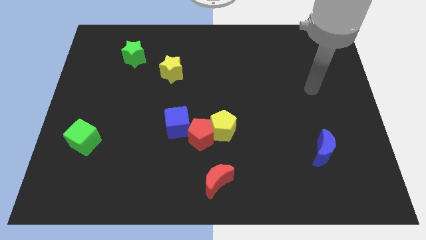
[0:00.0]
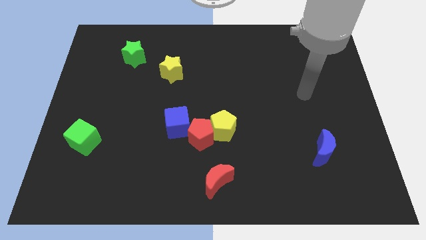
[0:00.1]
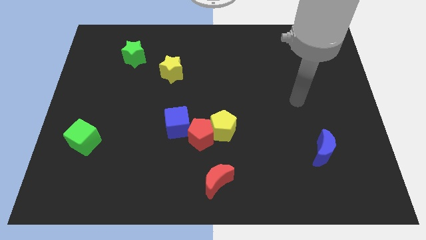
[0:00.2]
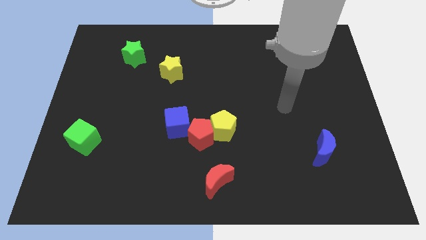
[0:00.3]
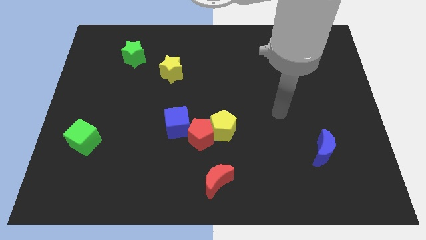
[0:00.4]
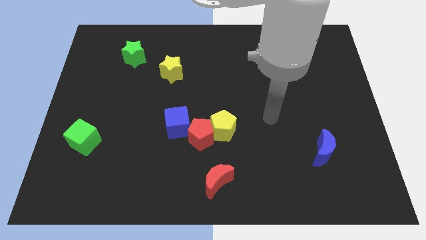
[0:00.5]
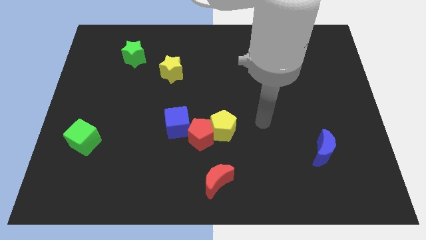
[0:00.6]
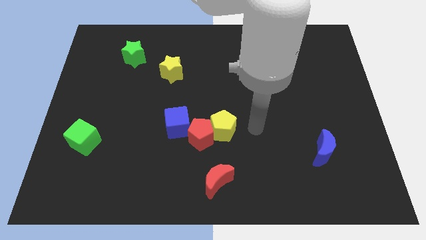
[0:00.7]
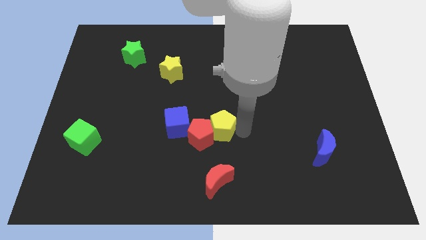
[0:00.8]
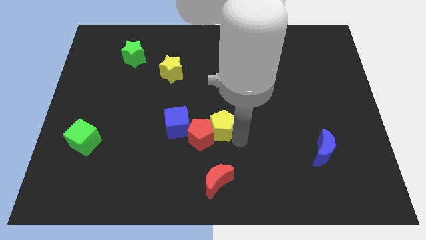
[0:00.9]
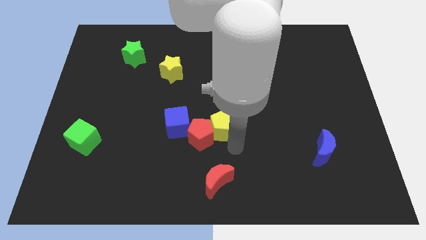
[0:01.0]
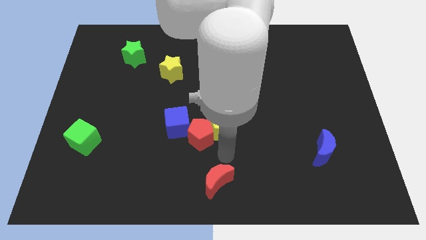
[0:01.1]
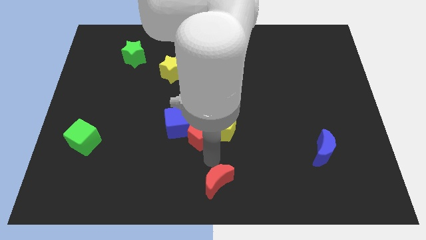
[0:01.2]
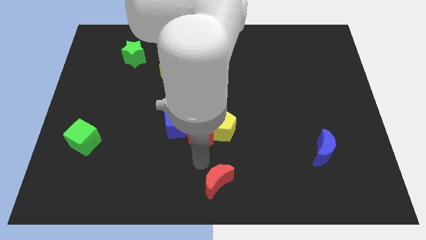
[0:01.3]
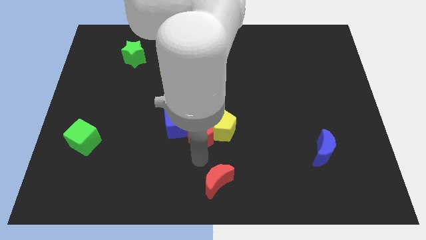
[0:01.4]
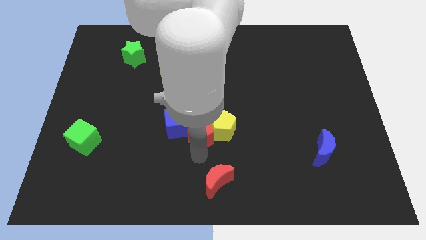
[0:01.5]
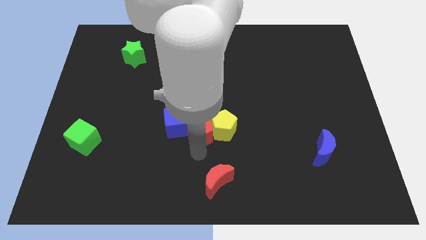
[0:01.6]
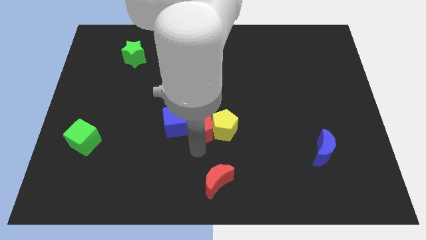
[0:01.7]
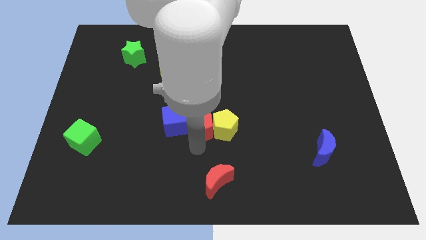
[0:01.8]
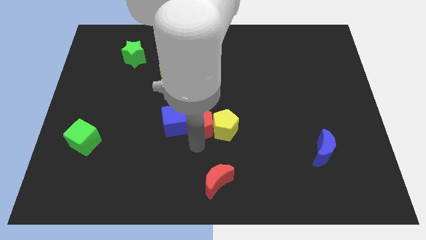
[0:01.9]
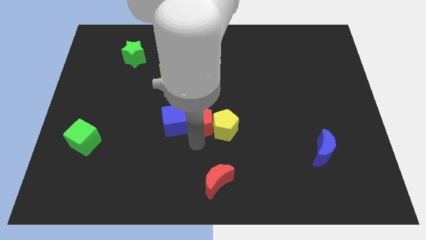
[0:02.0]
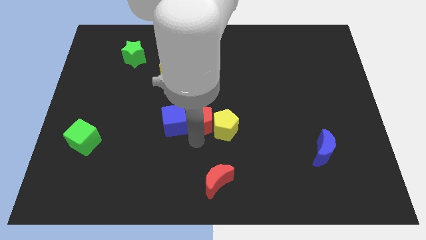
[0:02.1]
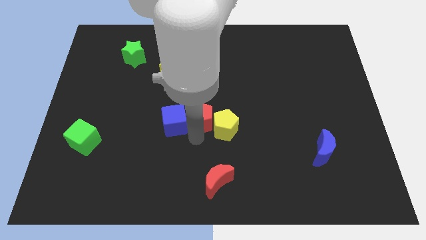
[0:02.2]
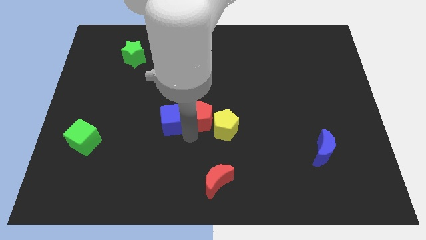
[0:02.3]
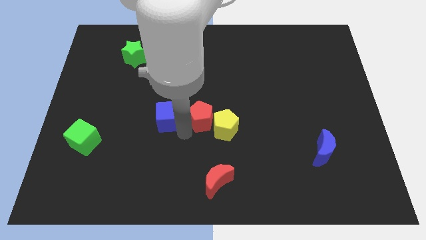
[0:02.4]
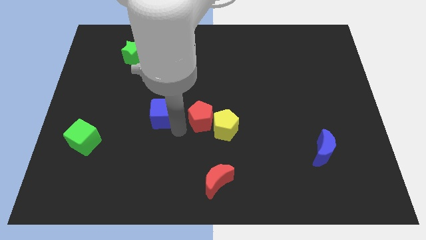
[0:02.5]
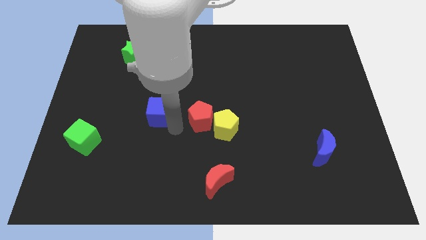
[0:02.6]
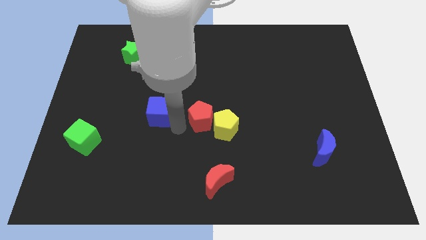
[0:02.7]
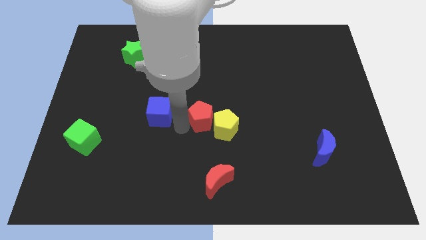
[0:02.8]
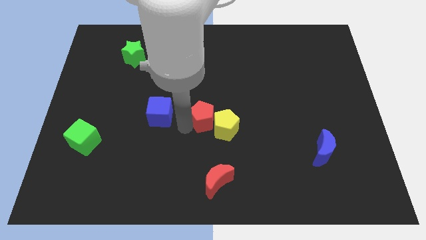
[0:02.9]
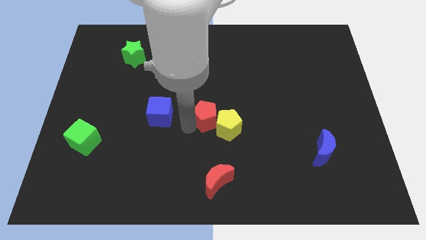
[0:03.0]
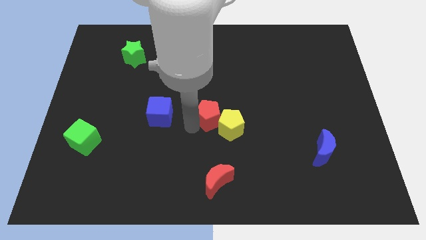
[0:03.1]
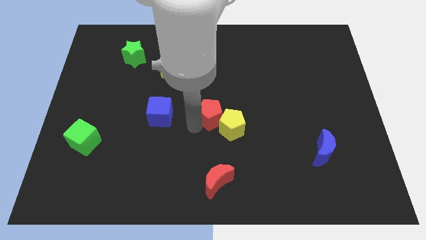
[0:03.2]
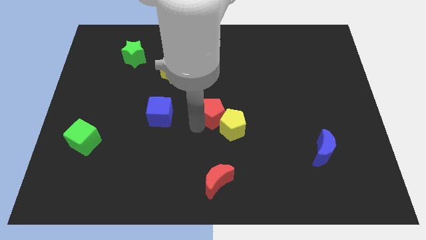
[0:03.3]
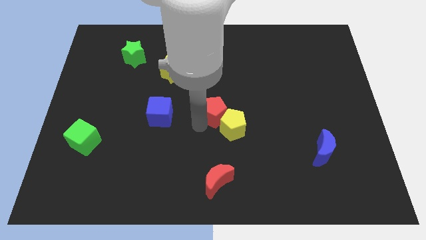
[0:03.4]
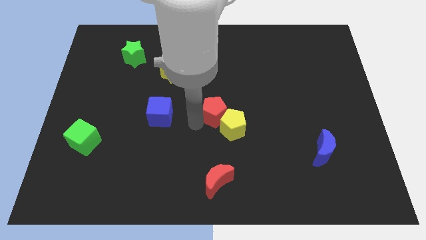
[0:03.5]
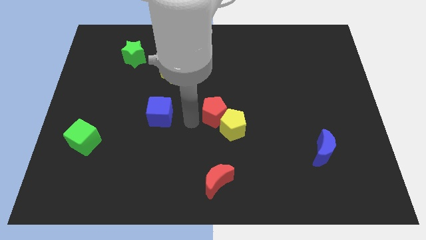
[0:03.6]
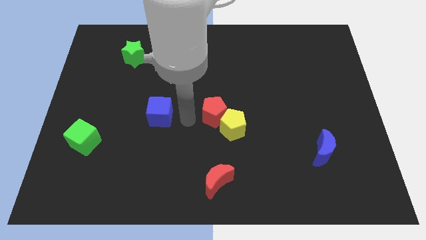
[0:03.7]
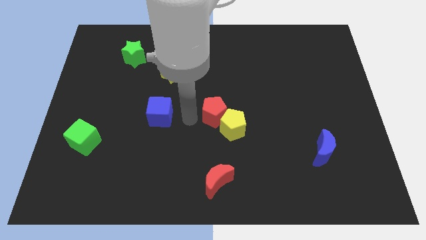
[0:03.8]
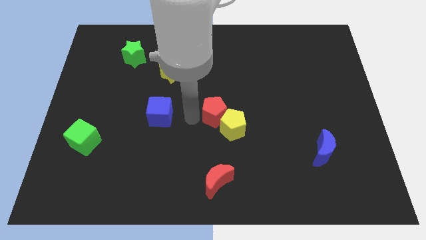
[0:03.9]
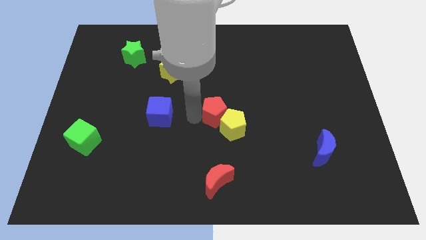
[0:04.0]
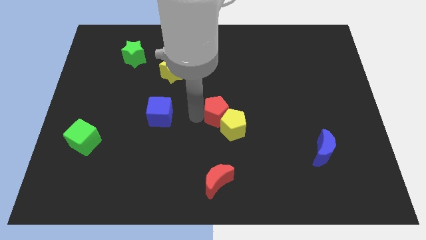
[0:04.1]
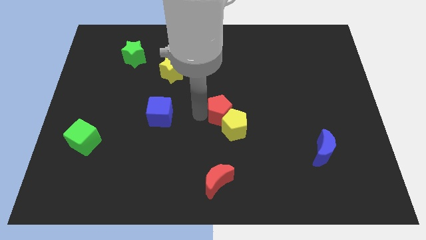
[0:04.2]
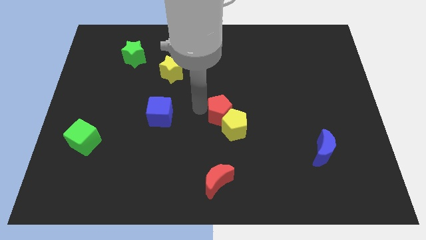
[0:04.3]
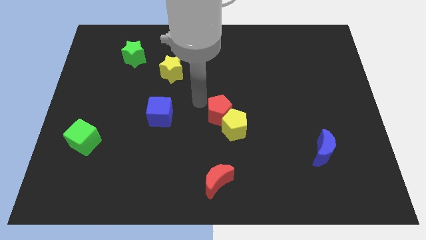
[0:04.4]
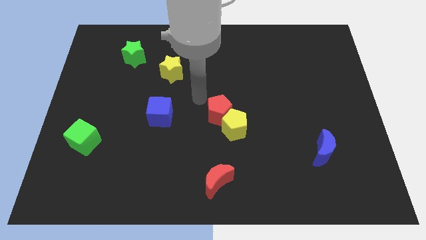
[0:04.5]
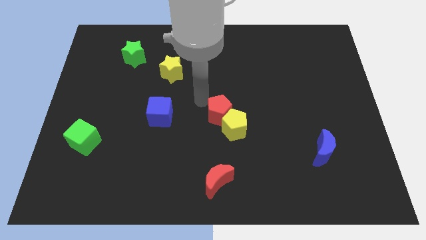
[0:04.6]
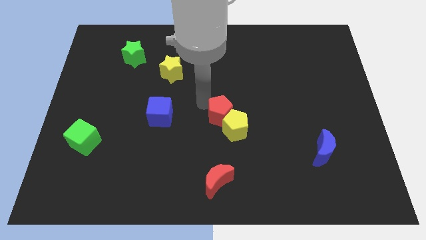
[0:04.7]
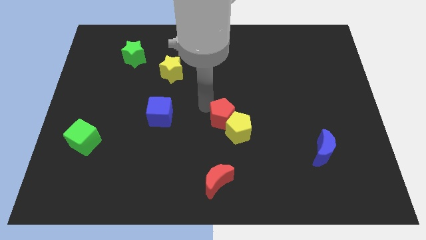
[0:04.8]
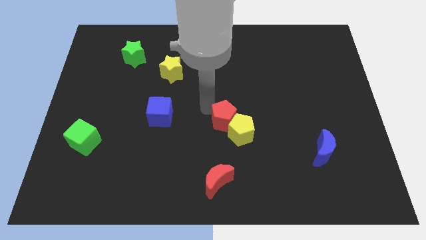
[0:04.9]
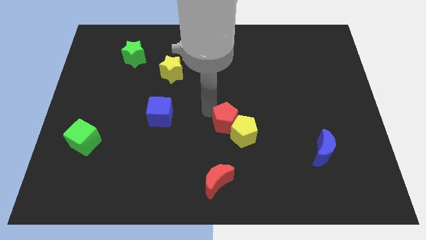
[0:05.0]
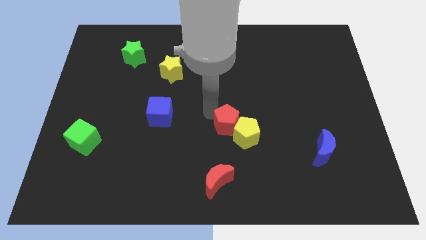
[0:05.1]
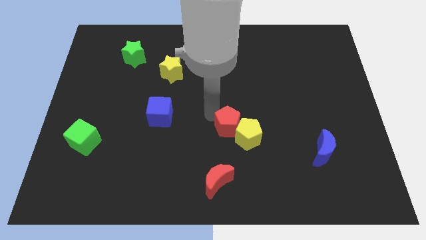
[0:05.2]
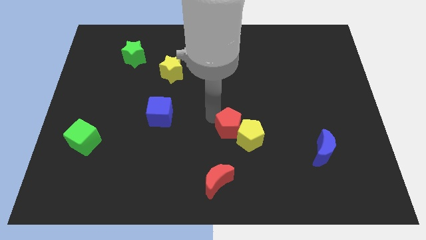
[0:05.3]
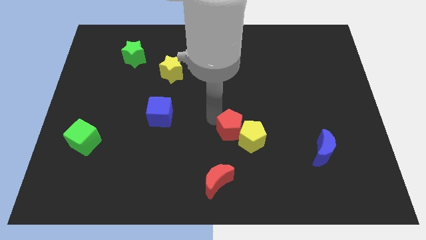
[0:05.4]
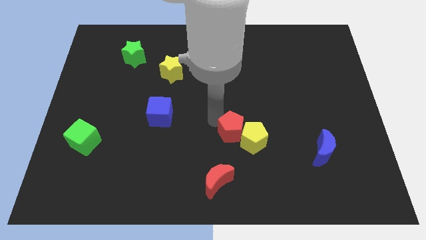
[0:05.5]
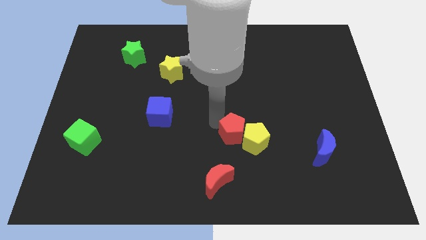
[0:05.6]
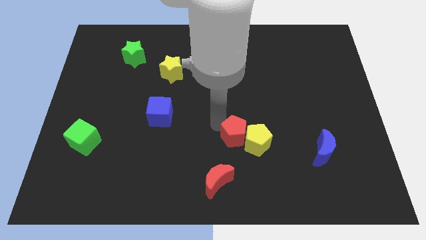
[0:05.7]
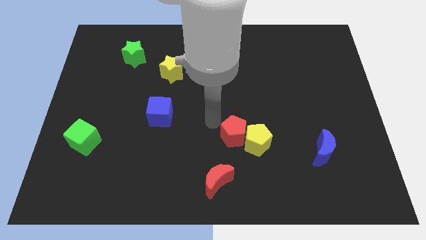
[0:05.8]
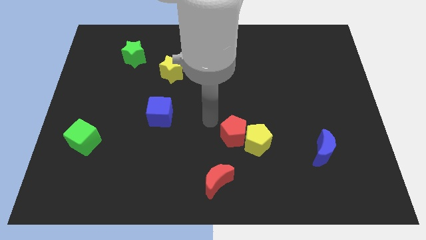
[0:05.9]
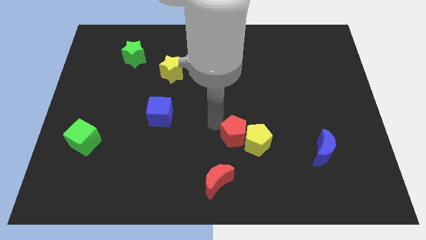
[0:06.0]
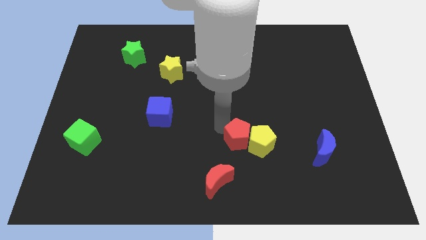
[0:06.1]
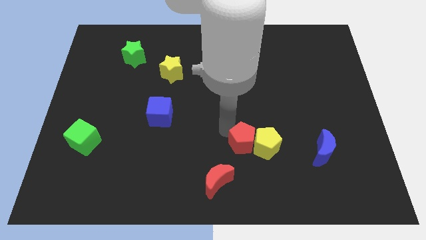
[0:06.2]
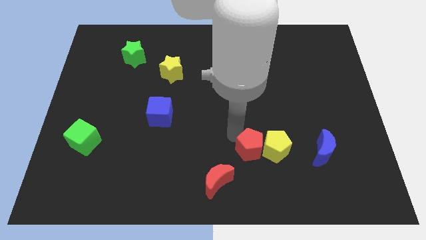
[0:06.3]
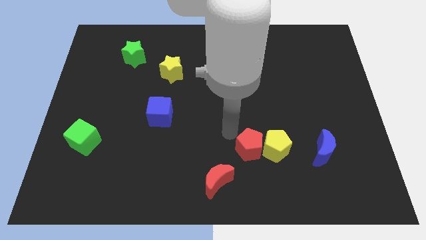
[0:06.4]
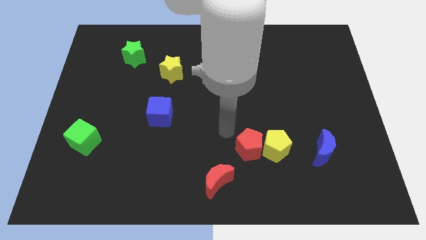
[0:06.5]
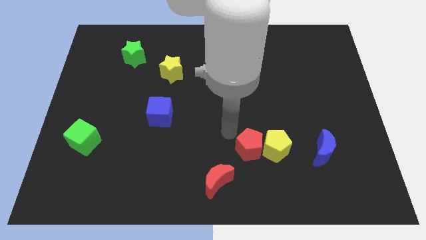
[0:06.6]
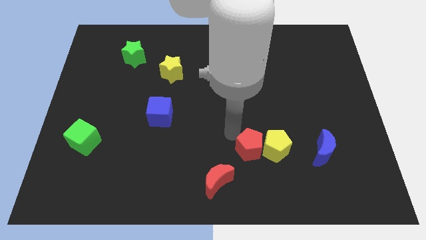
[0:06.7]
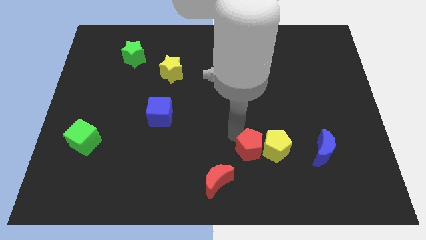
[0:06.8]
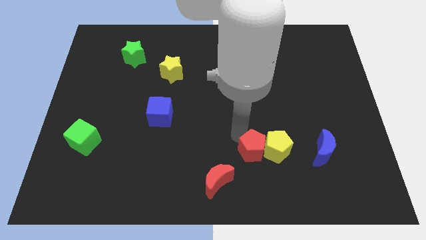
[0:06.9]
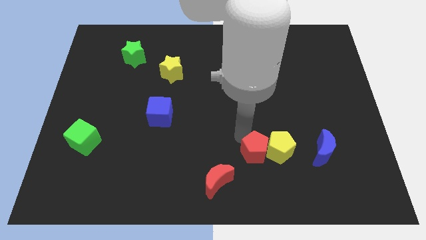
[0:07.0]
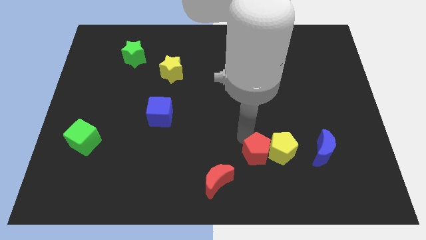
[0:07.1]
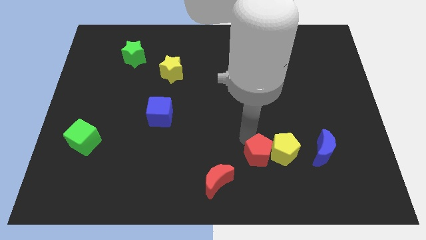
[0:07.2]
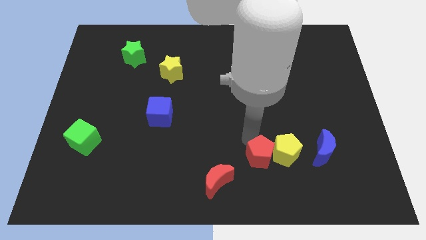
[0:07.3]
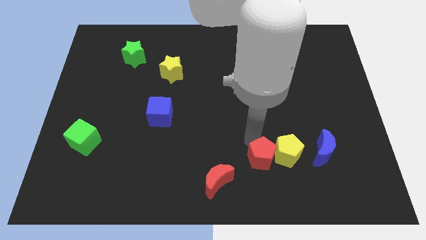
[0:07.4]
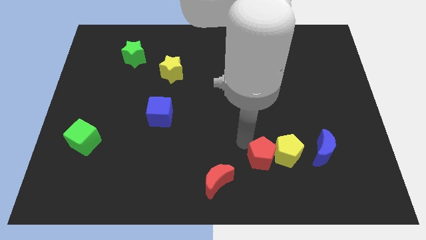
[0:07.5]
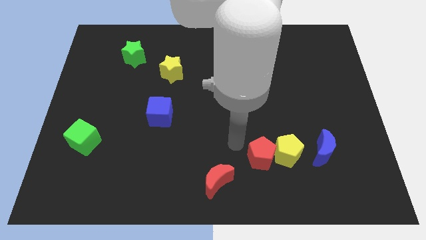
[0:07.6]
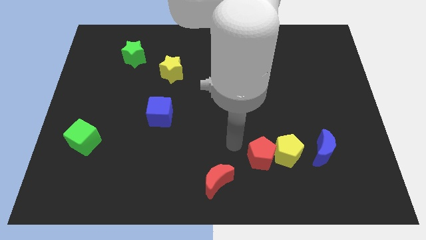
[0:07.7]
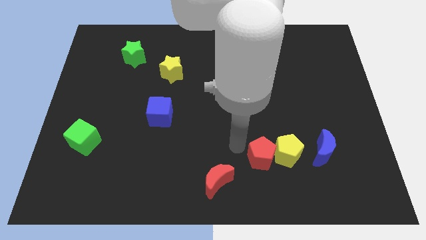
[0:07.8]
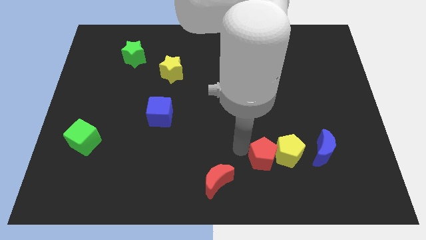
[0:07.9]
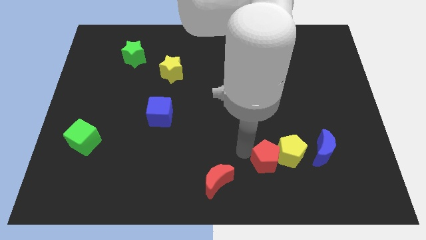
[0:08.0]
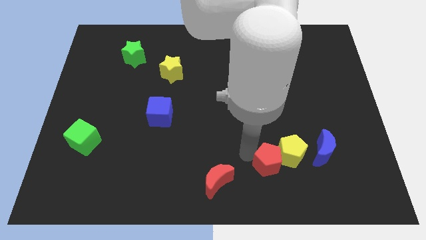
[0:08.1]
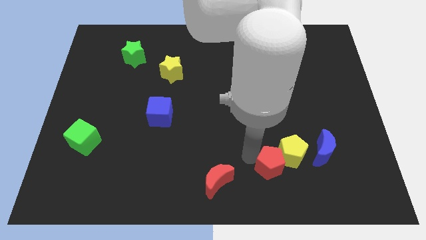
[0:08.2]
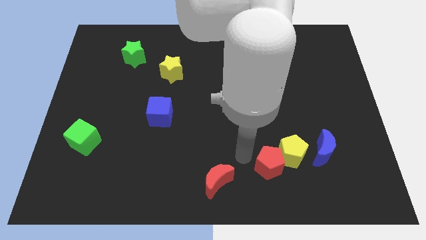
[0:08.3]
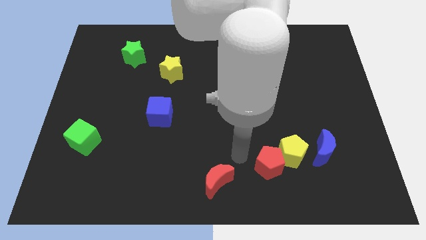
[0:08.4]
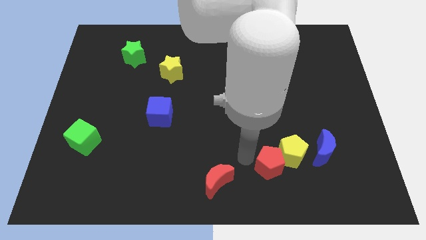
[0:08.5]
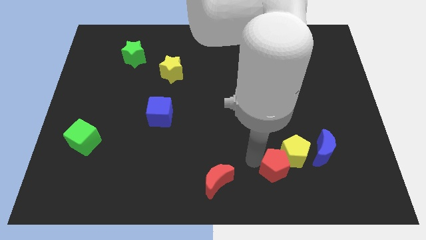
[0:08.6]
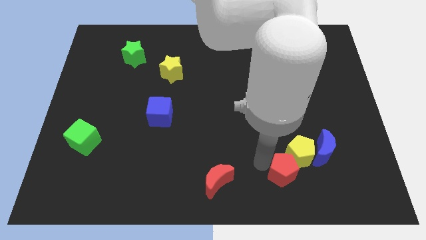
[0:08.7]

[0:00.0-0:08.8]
put the red pentagon to the bottom left of the blue moon
